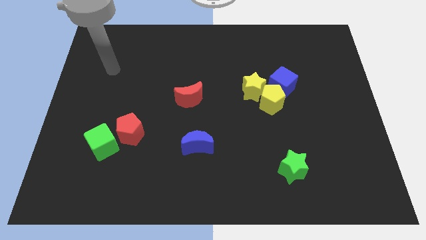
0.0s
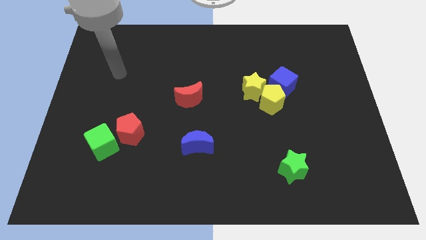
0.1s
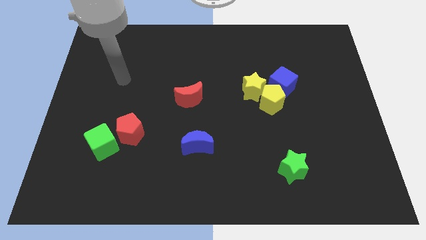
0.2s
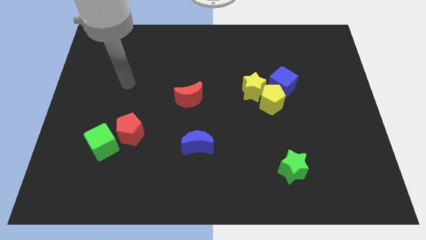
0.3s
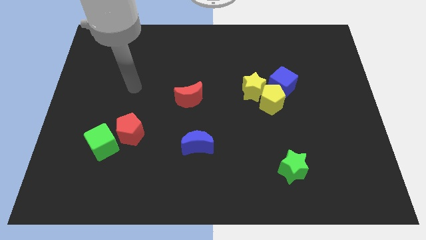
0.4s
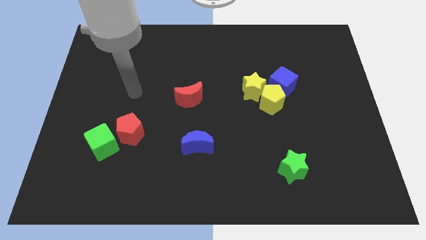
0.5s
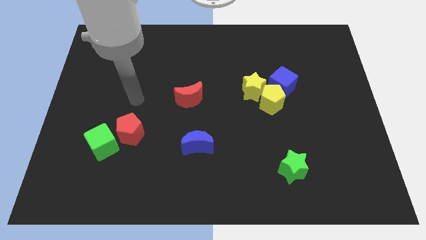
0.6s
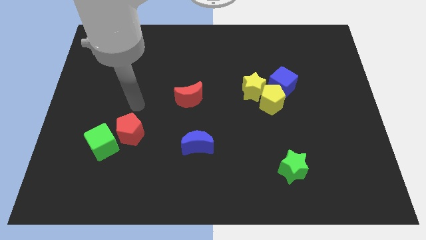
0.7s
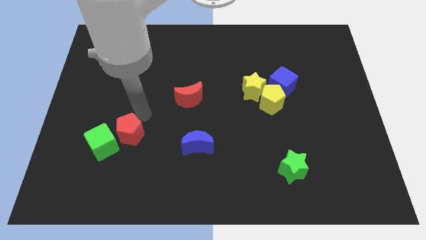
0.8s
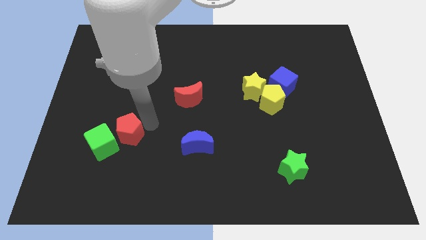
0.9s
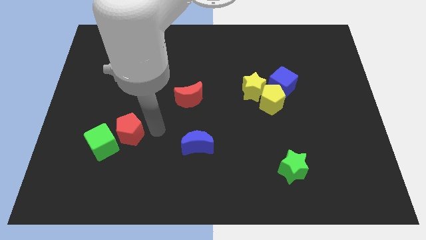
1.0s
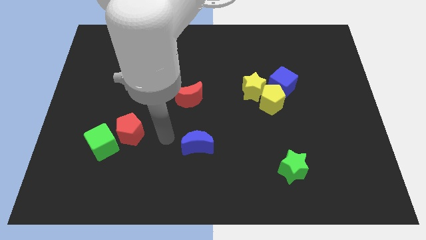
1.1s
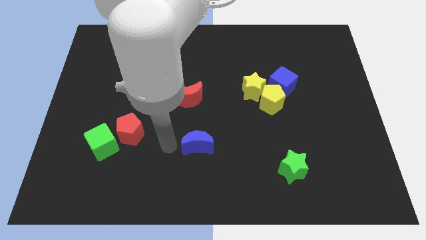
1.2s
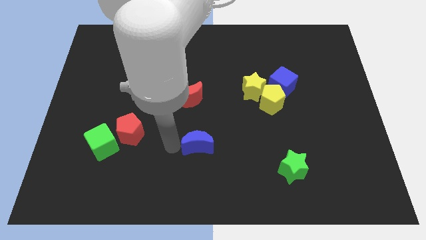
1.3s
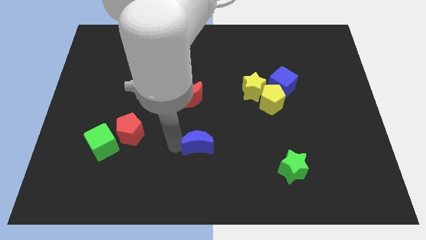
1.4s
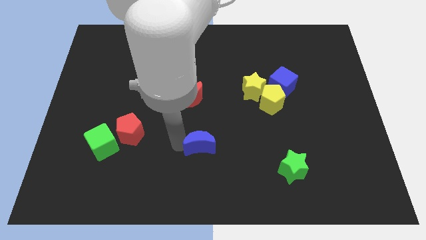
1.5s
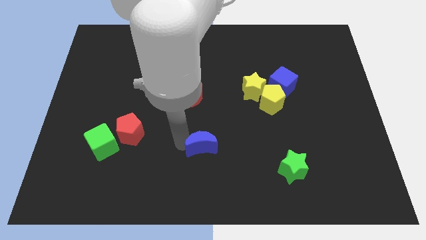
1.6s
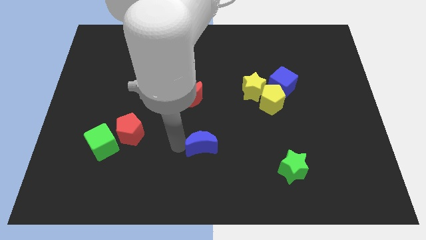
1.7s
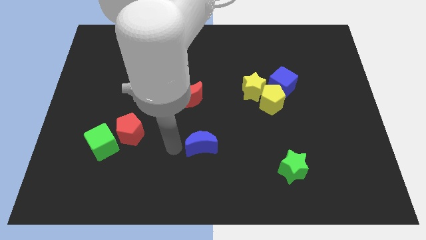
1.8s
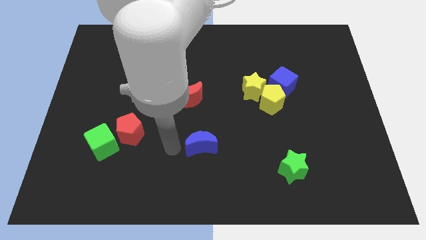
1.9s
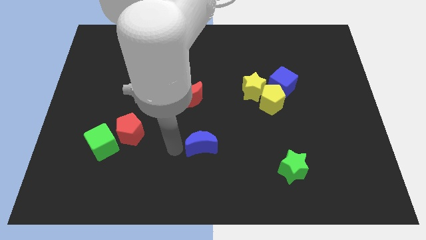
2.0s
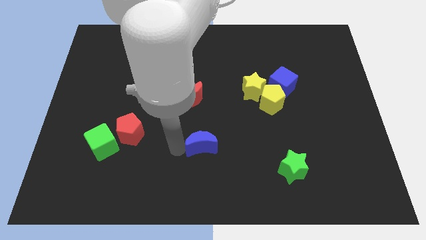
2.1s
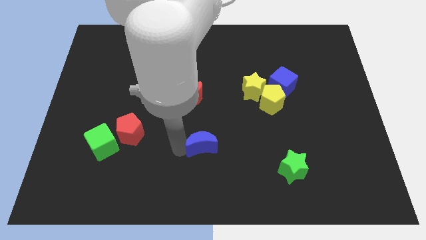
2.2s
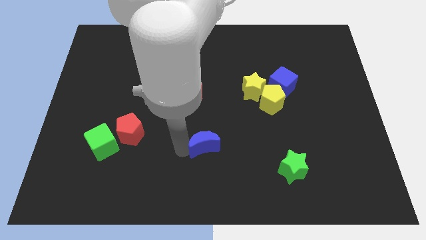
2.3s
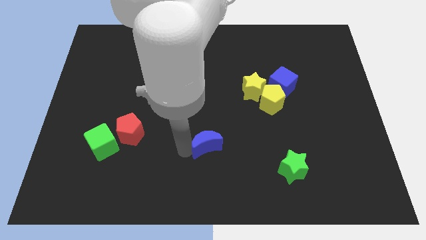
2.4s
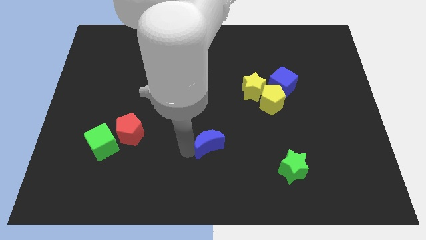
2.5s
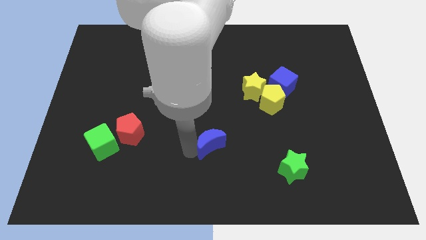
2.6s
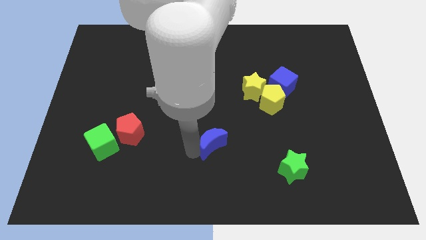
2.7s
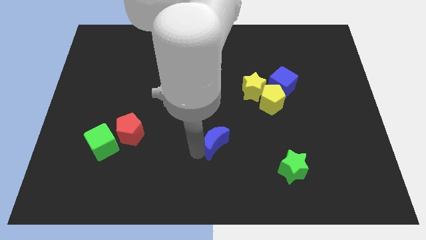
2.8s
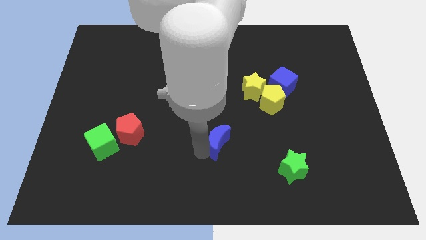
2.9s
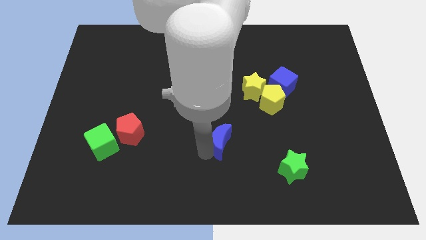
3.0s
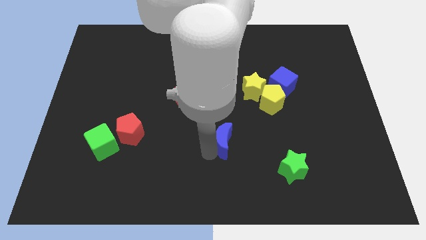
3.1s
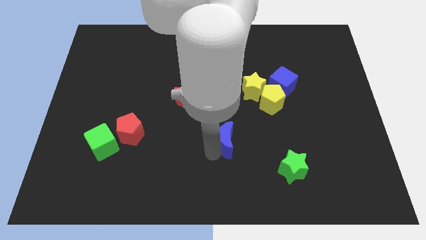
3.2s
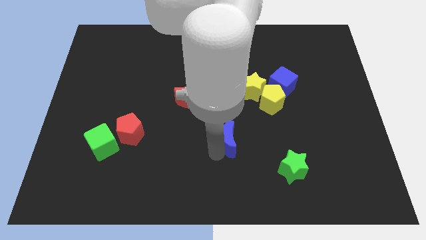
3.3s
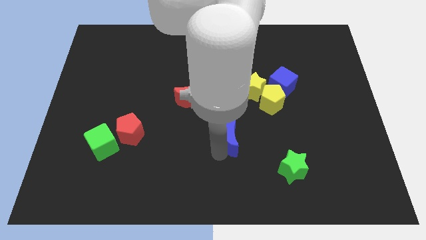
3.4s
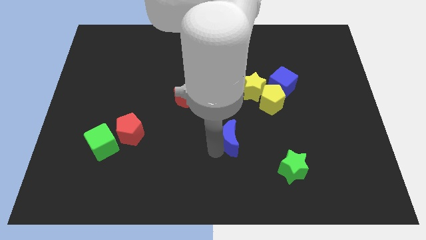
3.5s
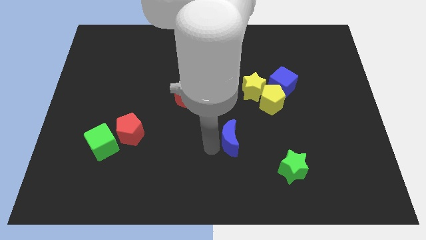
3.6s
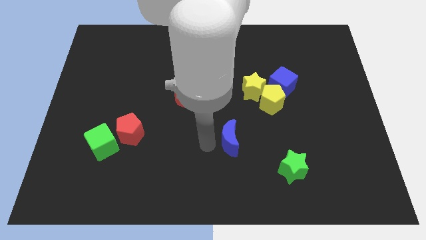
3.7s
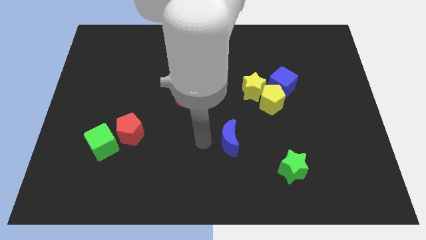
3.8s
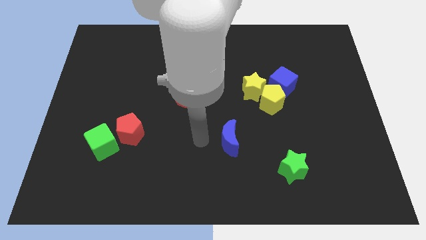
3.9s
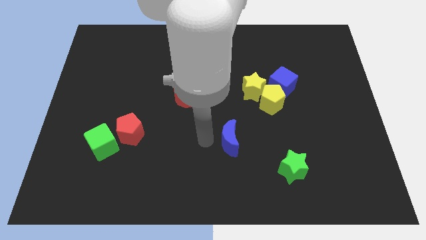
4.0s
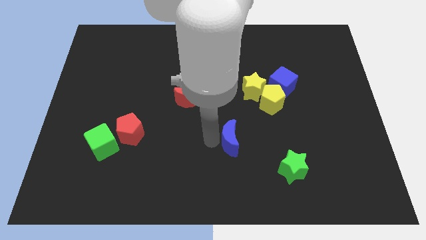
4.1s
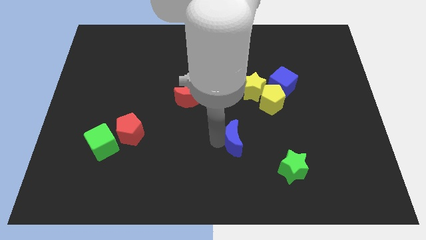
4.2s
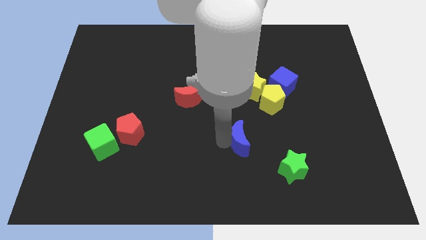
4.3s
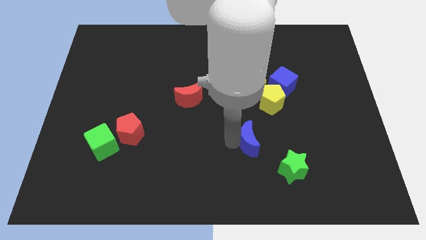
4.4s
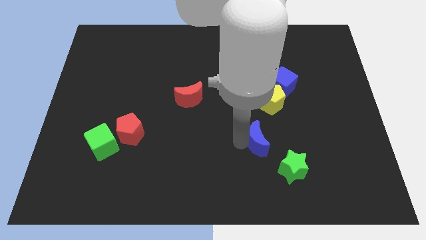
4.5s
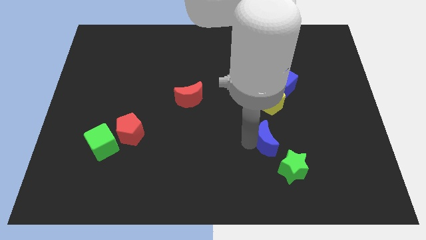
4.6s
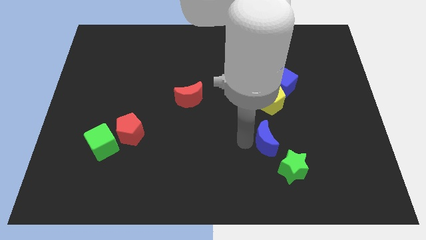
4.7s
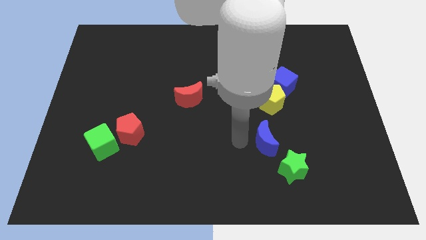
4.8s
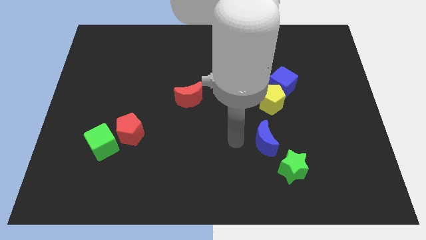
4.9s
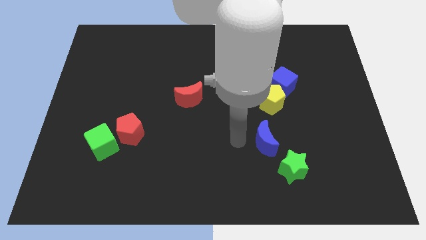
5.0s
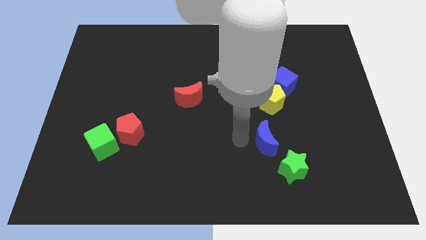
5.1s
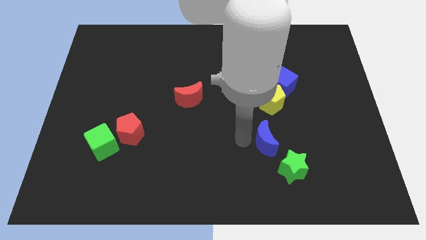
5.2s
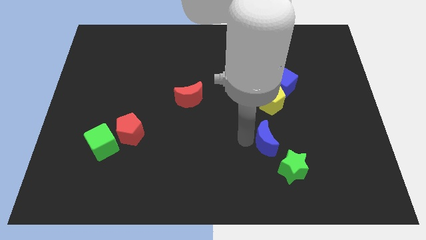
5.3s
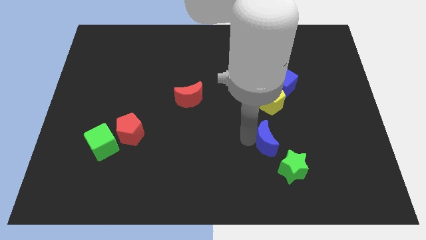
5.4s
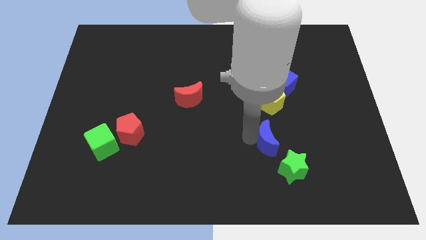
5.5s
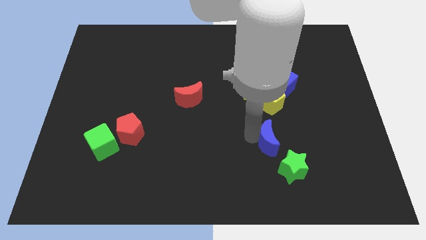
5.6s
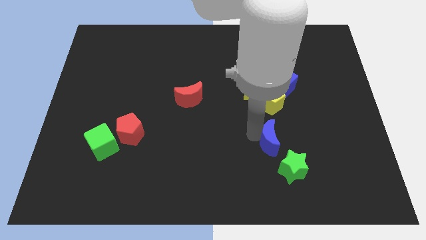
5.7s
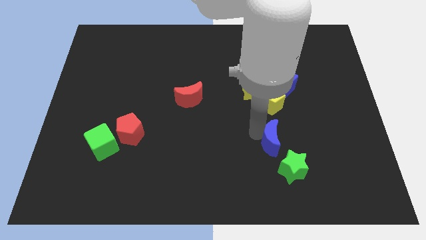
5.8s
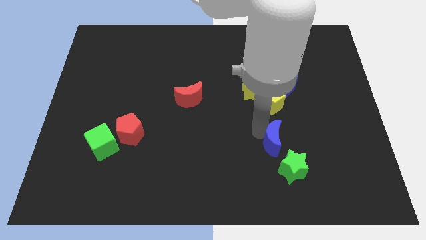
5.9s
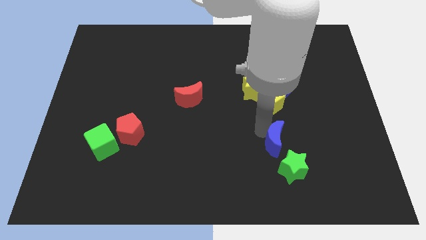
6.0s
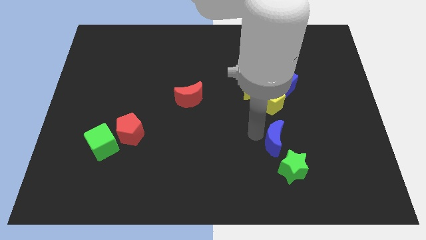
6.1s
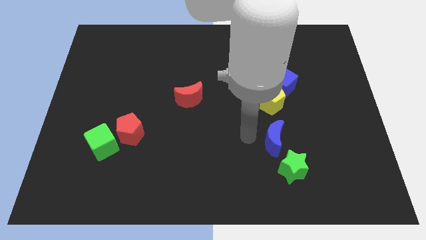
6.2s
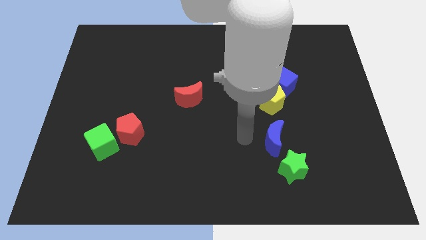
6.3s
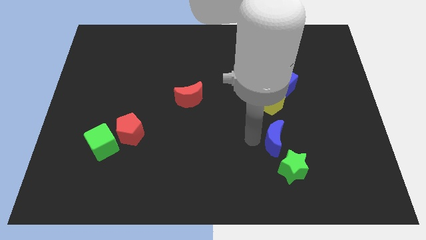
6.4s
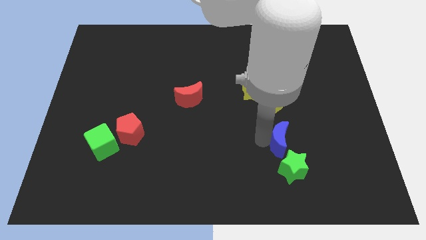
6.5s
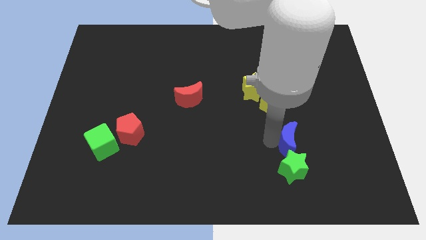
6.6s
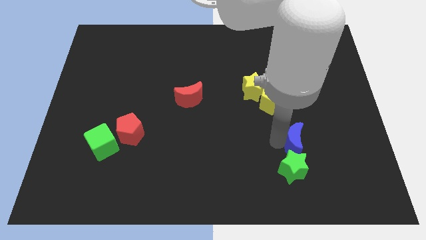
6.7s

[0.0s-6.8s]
slide the blue moon to the right

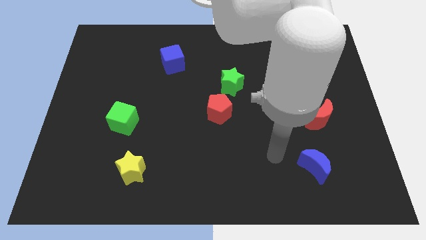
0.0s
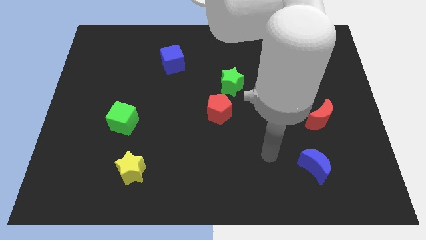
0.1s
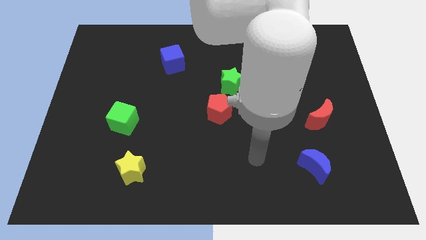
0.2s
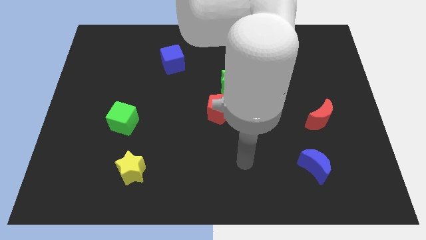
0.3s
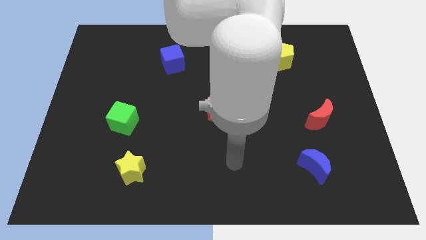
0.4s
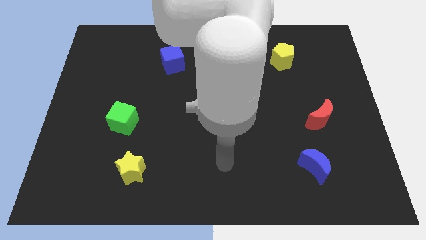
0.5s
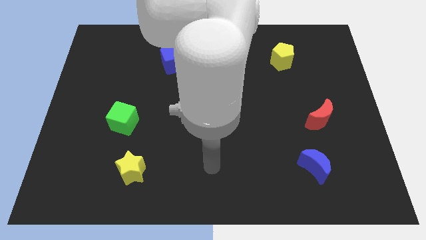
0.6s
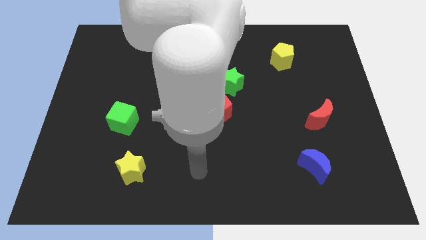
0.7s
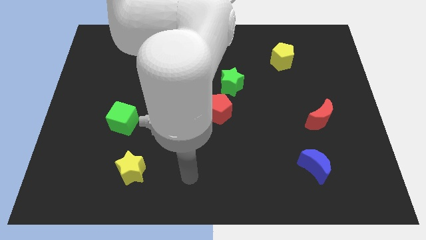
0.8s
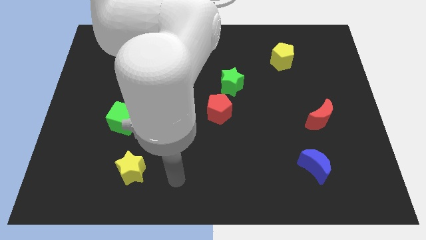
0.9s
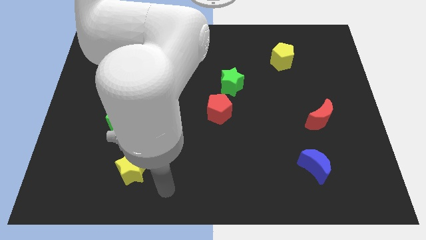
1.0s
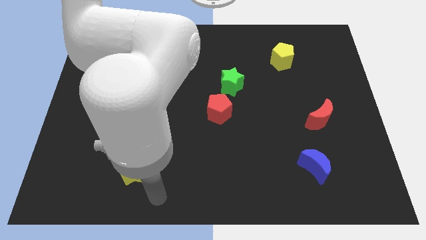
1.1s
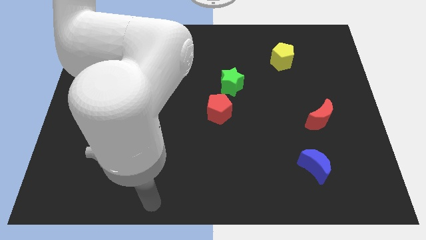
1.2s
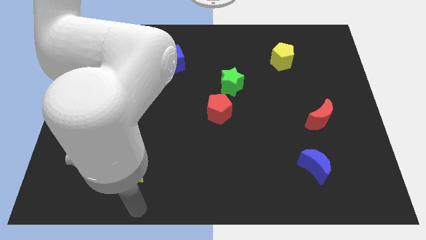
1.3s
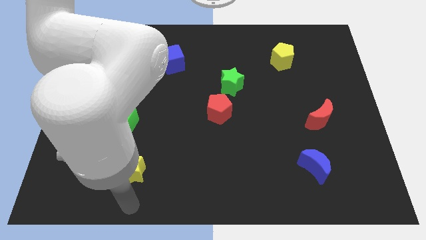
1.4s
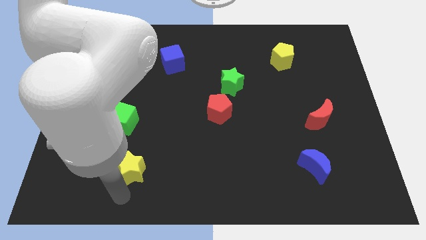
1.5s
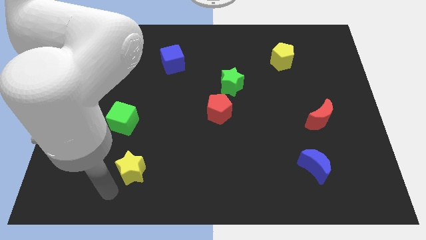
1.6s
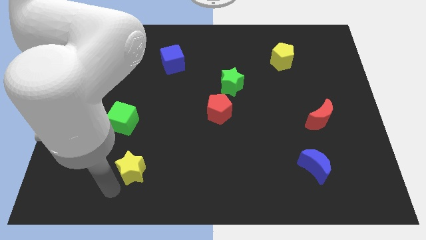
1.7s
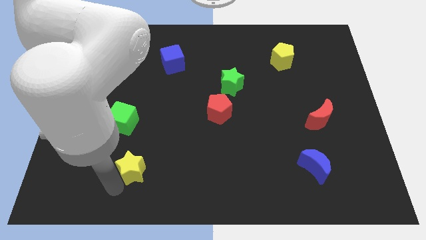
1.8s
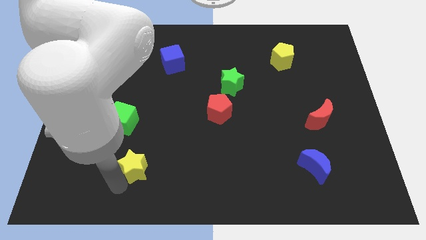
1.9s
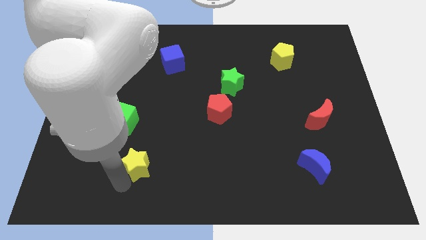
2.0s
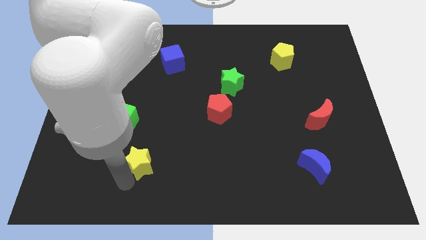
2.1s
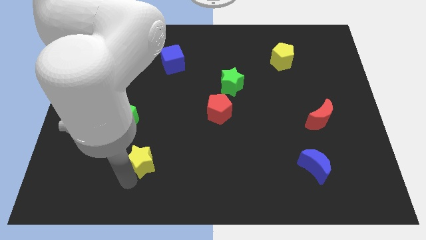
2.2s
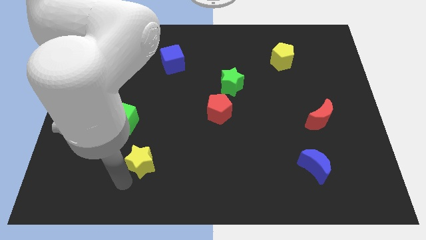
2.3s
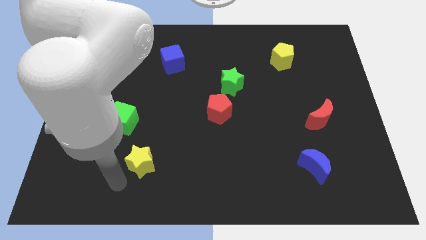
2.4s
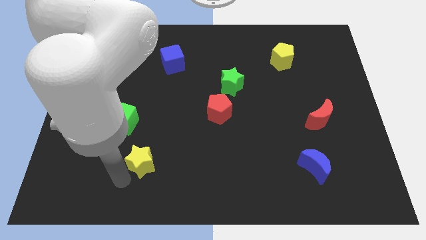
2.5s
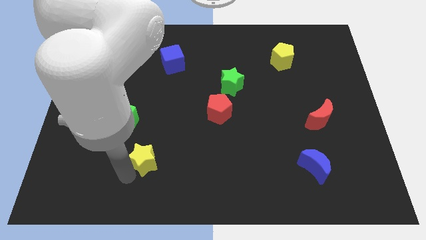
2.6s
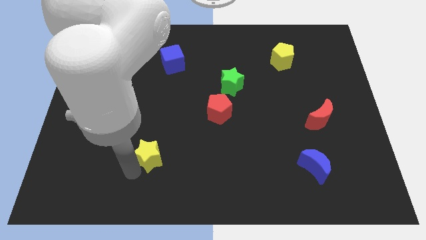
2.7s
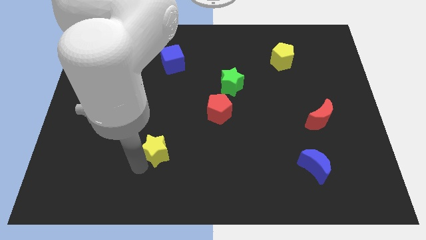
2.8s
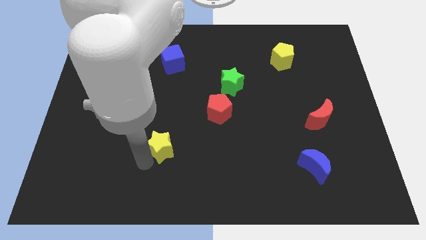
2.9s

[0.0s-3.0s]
slide the yellow star diagonally upwards and right somewhat
